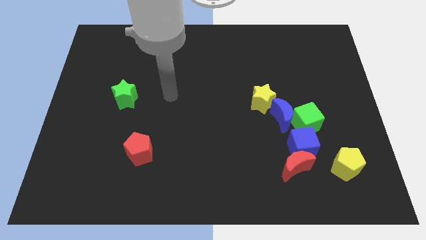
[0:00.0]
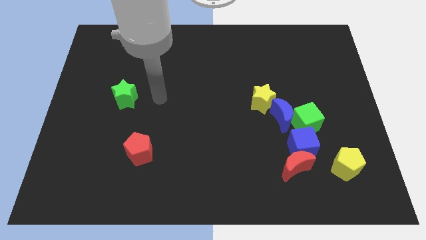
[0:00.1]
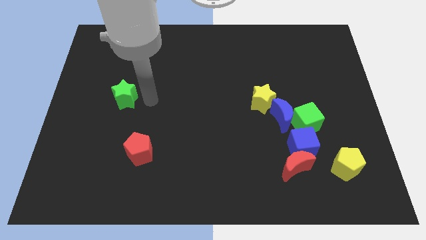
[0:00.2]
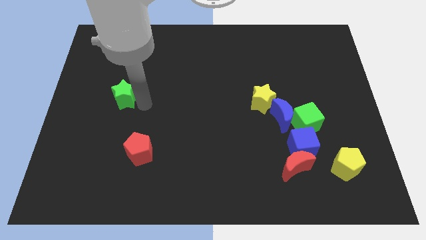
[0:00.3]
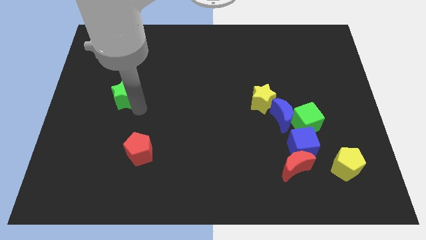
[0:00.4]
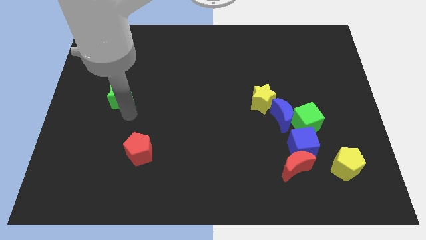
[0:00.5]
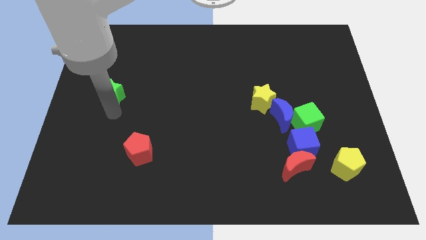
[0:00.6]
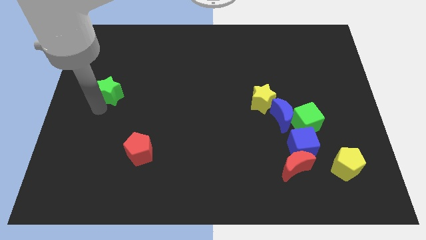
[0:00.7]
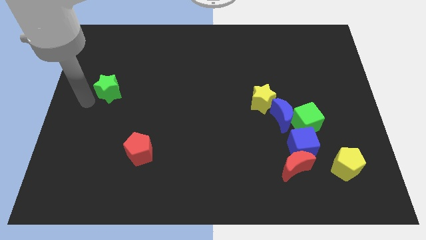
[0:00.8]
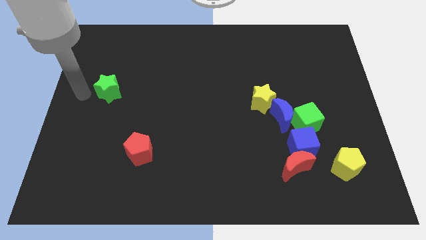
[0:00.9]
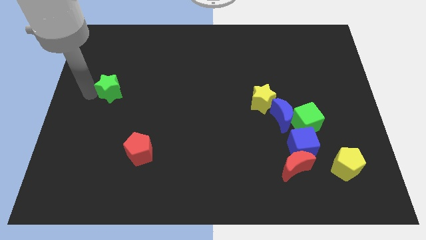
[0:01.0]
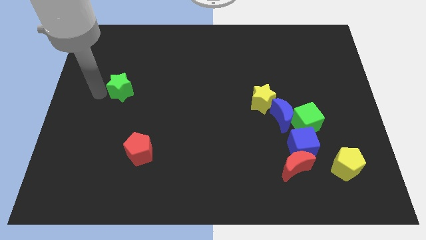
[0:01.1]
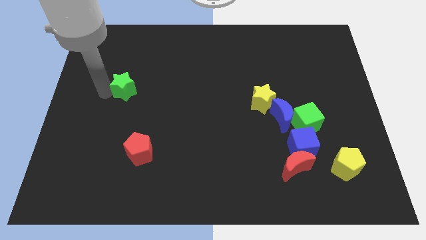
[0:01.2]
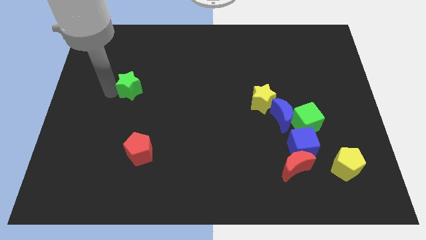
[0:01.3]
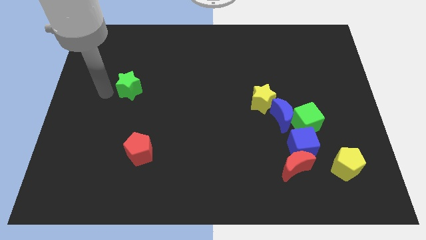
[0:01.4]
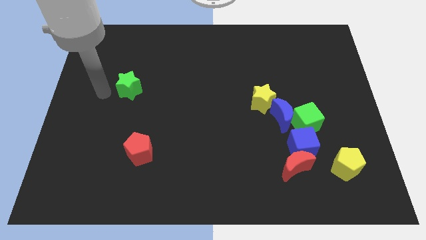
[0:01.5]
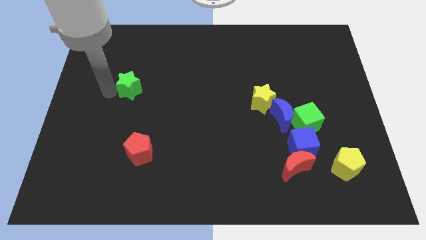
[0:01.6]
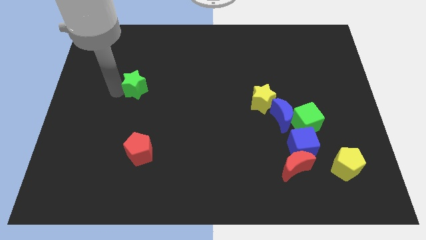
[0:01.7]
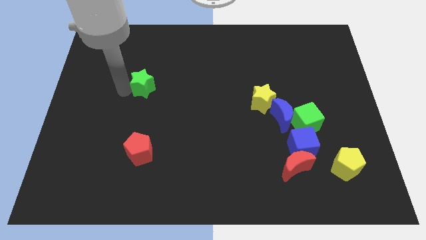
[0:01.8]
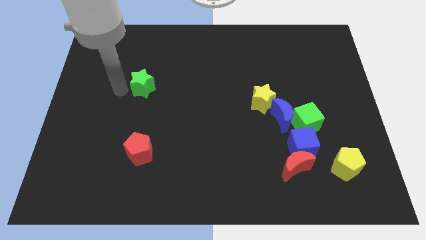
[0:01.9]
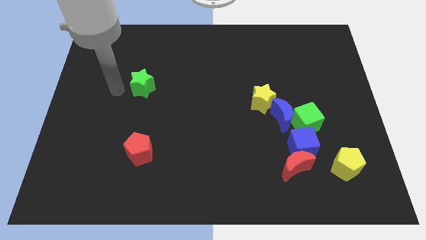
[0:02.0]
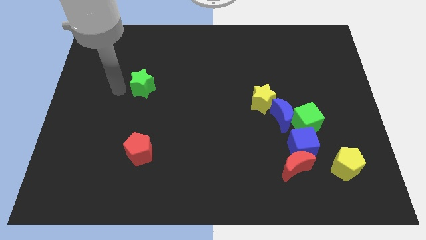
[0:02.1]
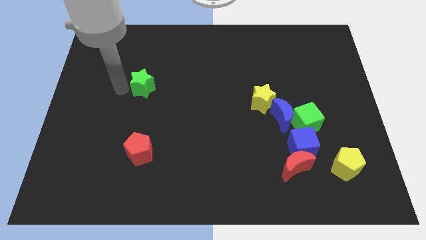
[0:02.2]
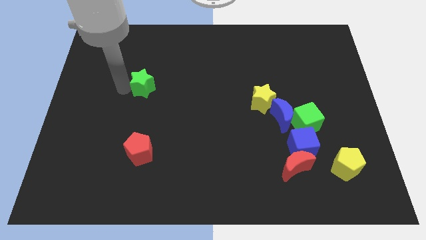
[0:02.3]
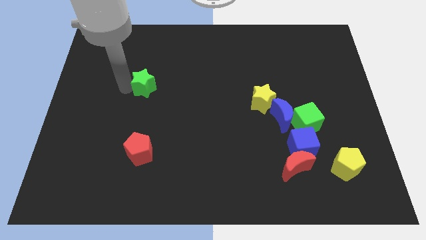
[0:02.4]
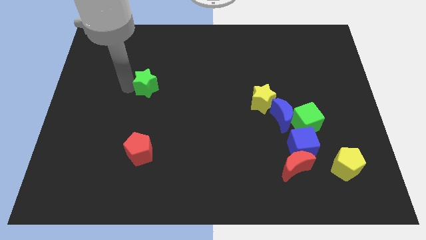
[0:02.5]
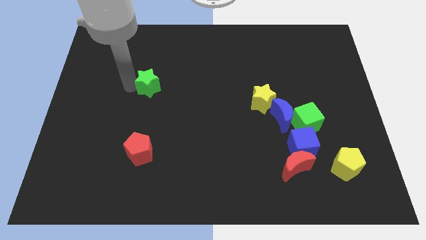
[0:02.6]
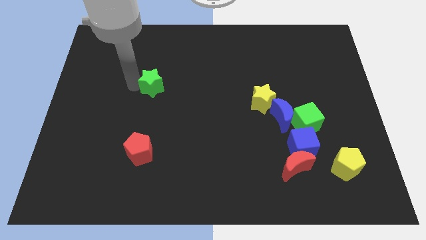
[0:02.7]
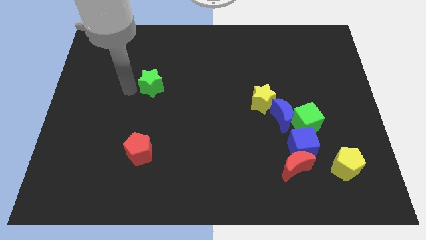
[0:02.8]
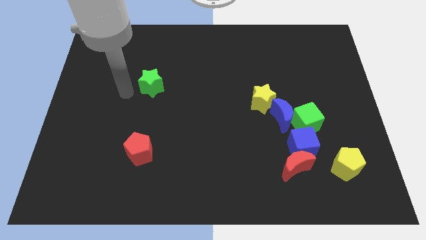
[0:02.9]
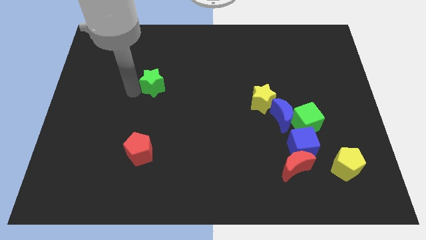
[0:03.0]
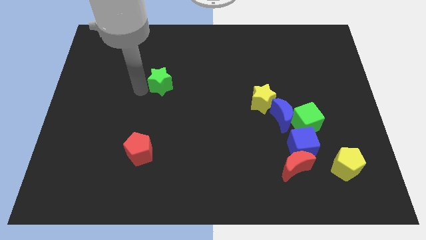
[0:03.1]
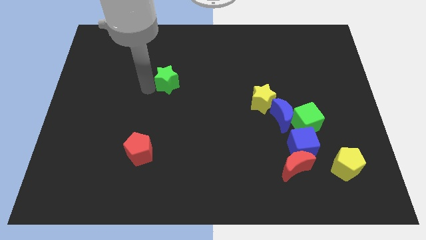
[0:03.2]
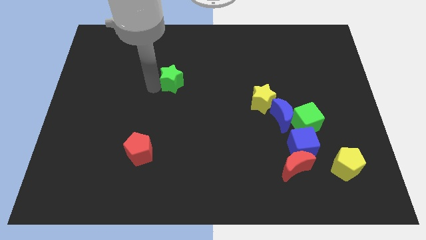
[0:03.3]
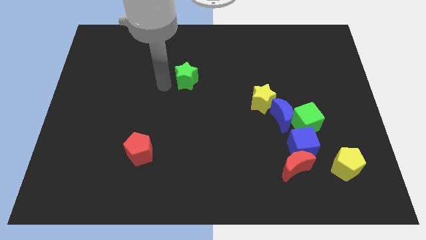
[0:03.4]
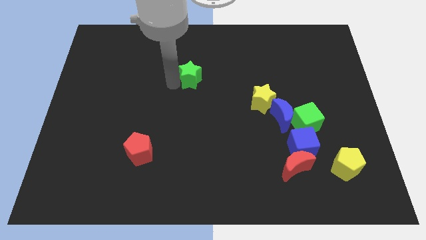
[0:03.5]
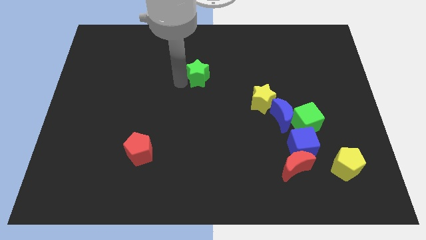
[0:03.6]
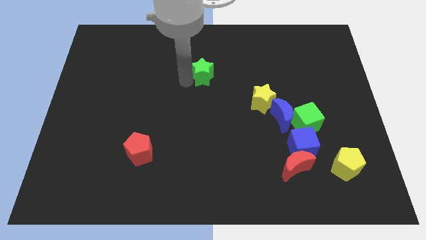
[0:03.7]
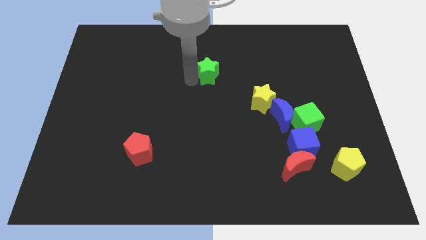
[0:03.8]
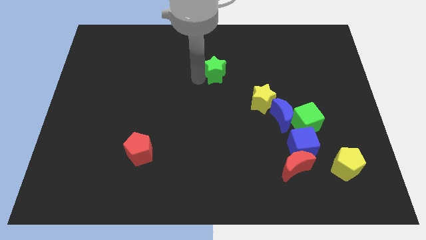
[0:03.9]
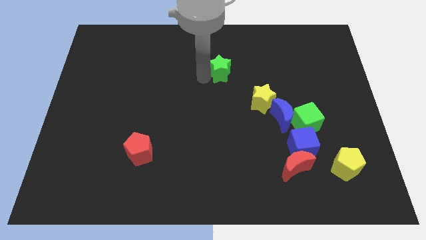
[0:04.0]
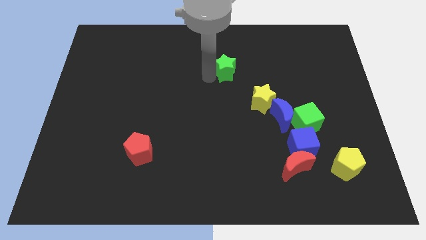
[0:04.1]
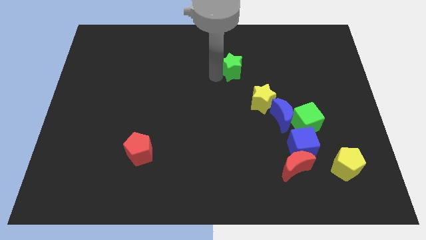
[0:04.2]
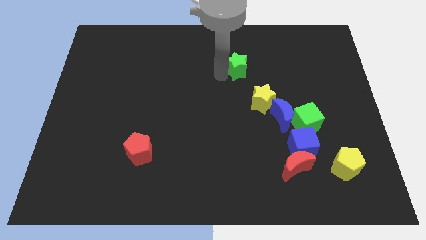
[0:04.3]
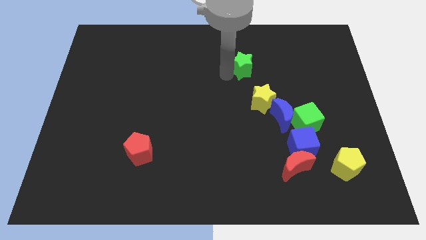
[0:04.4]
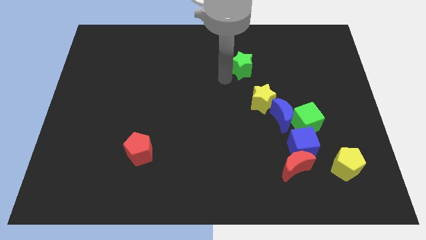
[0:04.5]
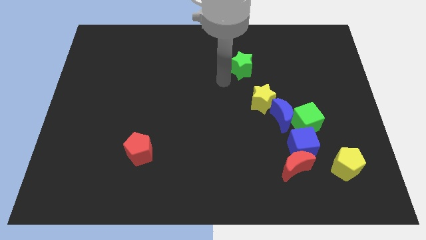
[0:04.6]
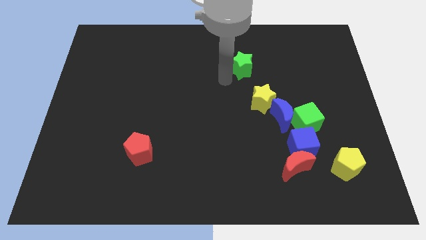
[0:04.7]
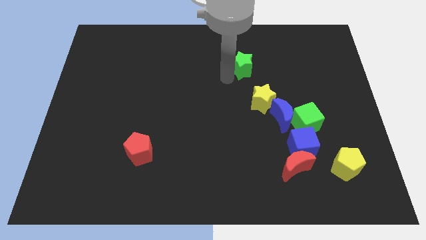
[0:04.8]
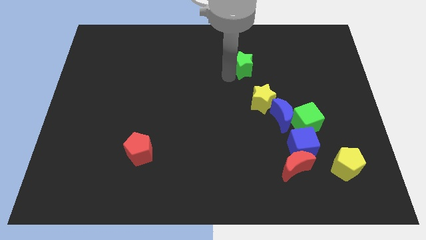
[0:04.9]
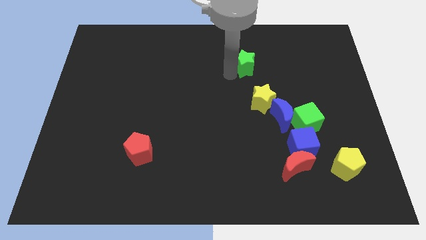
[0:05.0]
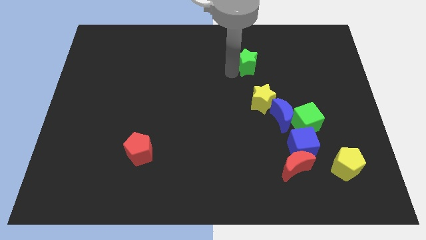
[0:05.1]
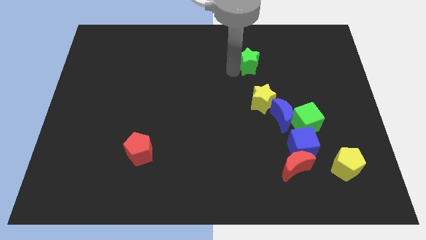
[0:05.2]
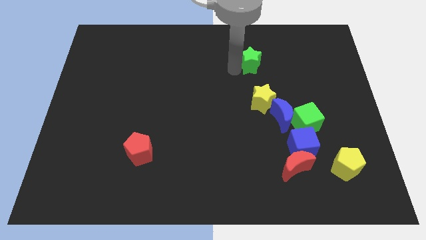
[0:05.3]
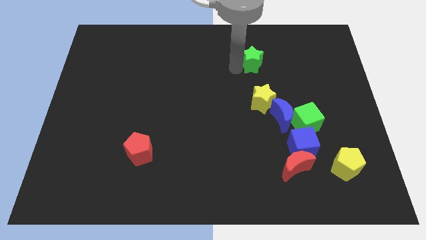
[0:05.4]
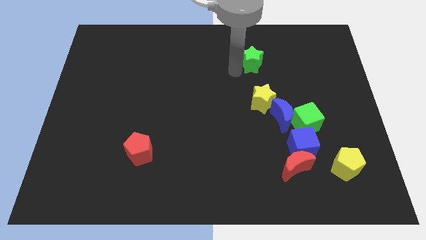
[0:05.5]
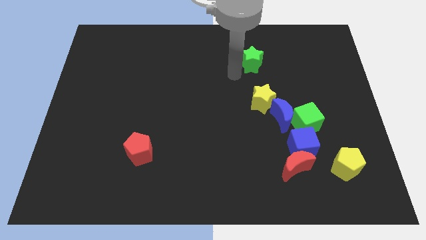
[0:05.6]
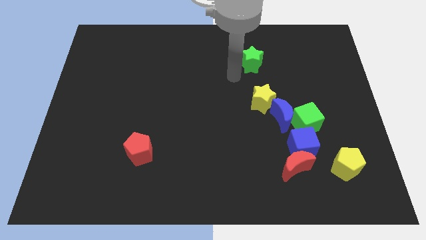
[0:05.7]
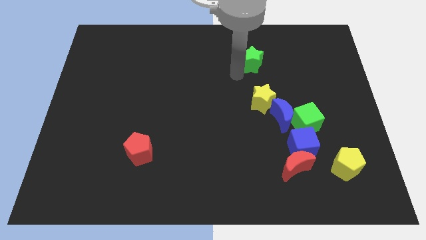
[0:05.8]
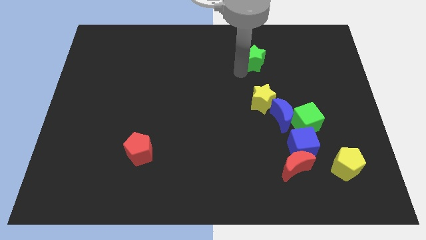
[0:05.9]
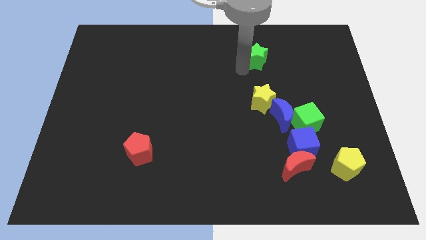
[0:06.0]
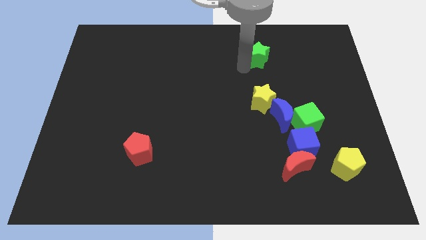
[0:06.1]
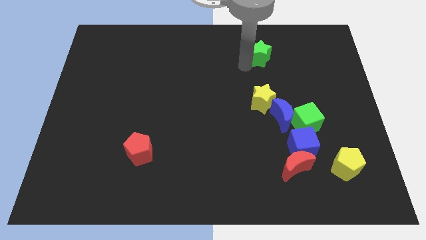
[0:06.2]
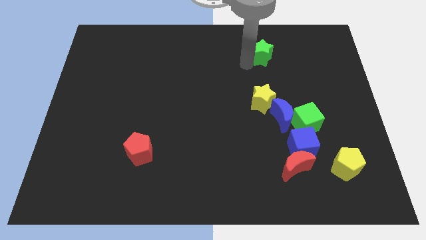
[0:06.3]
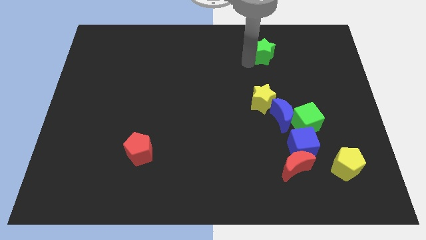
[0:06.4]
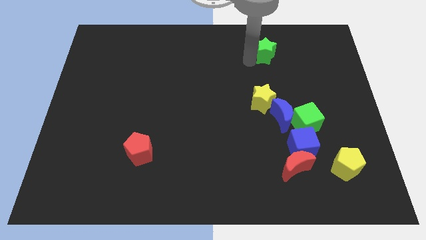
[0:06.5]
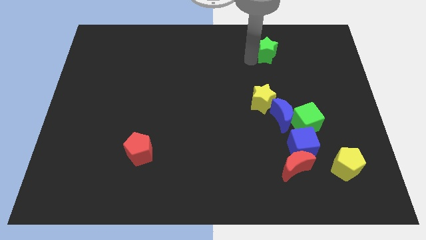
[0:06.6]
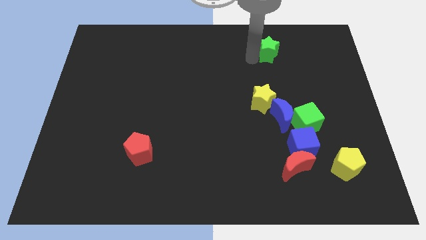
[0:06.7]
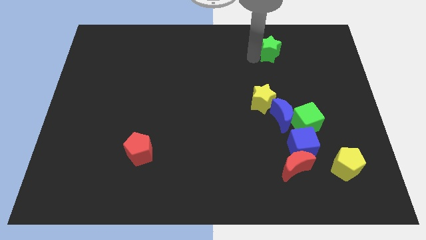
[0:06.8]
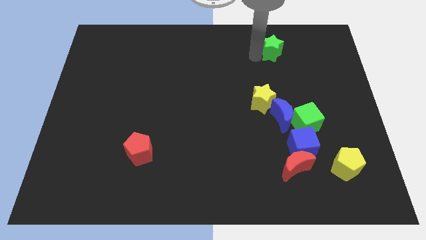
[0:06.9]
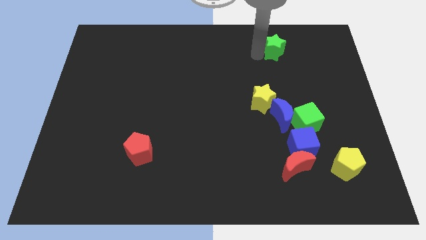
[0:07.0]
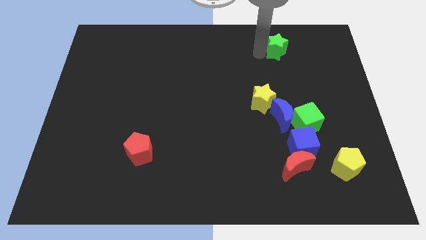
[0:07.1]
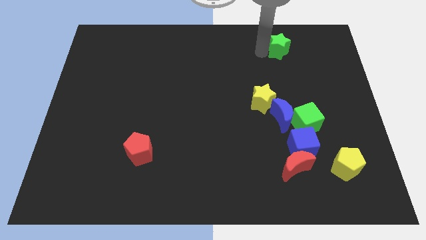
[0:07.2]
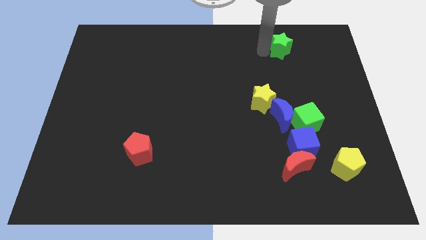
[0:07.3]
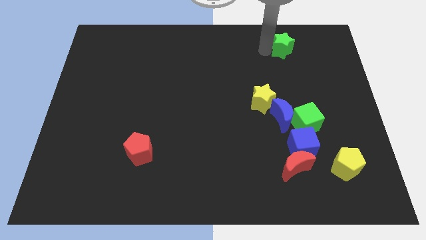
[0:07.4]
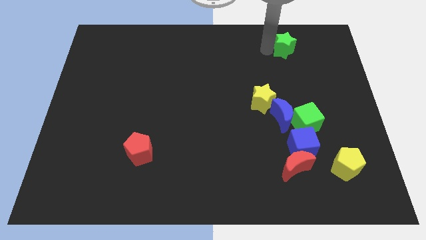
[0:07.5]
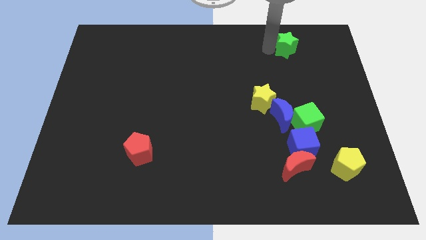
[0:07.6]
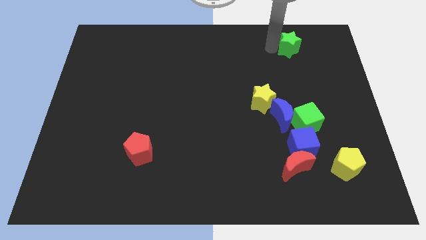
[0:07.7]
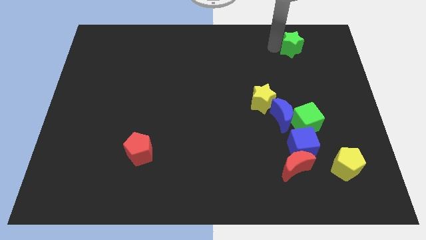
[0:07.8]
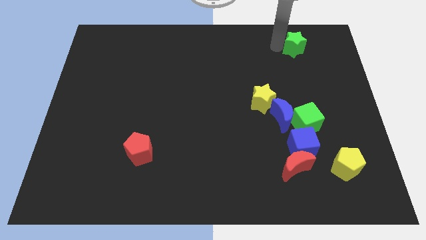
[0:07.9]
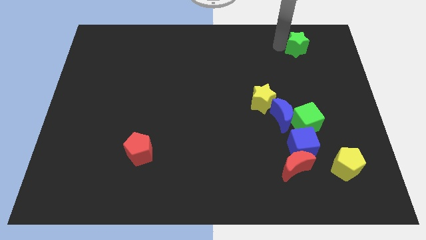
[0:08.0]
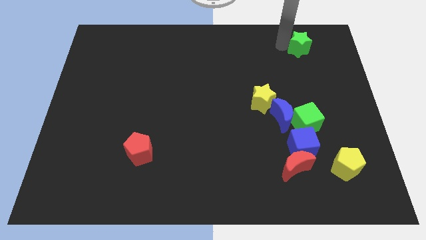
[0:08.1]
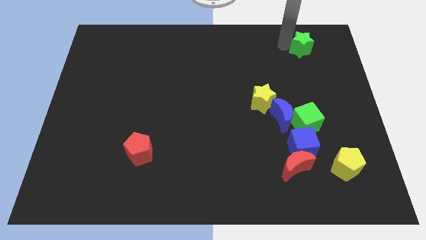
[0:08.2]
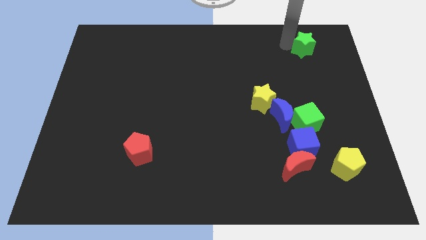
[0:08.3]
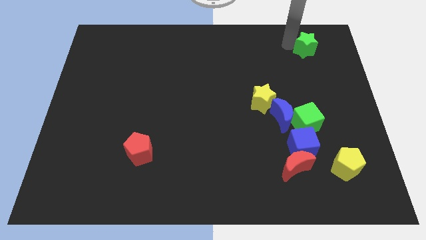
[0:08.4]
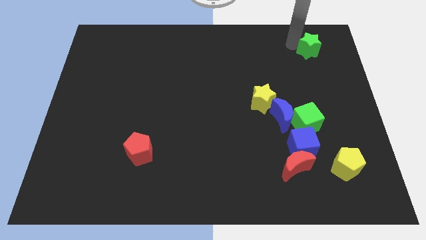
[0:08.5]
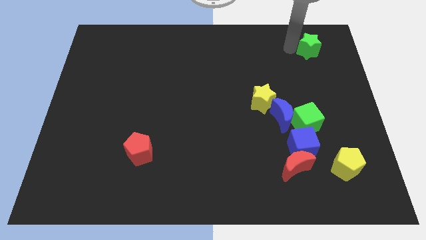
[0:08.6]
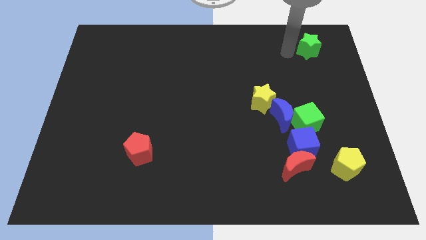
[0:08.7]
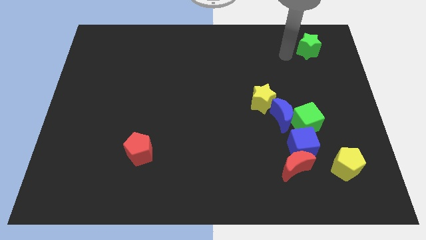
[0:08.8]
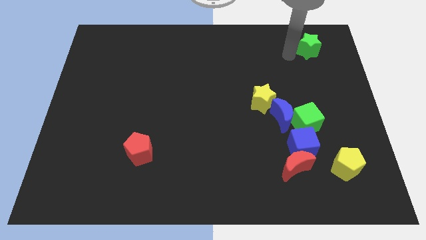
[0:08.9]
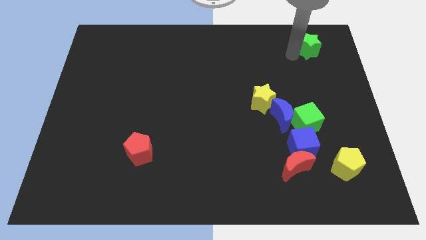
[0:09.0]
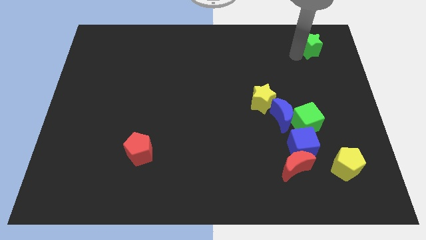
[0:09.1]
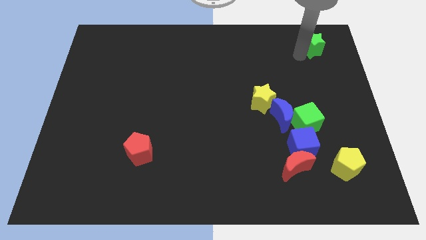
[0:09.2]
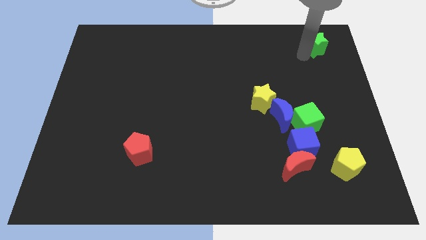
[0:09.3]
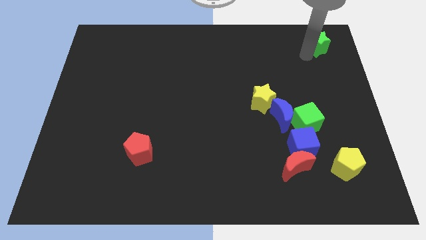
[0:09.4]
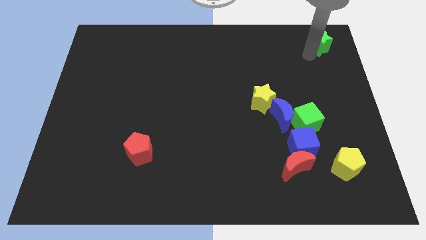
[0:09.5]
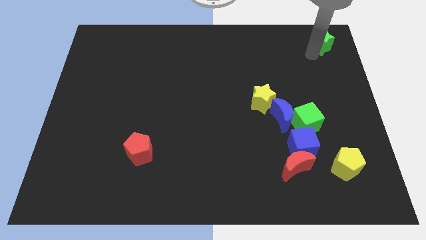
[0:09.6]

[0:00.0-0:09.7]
slide the green star to the top right corner
